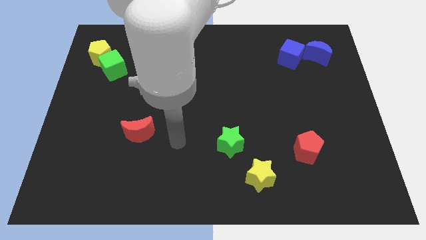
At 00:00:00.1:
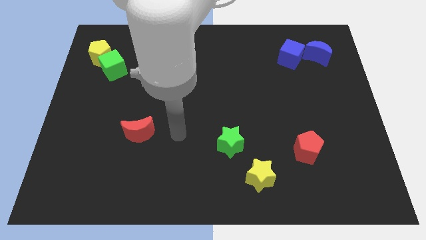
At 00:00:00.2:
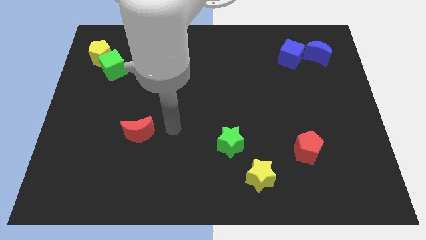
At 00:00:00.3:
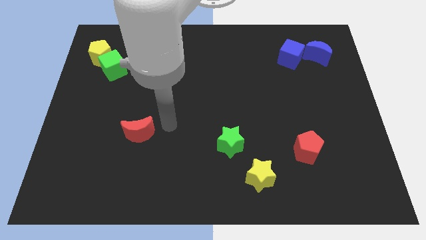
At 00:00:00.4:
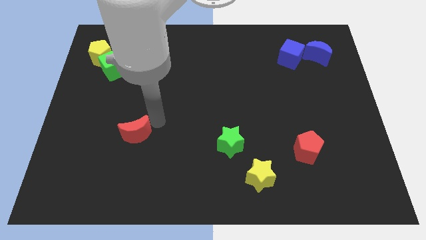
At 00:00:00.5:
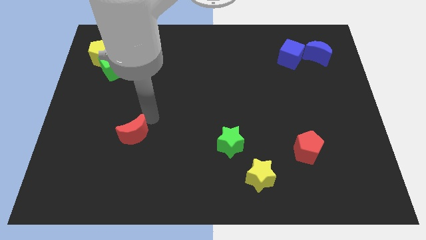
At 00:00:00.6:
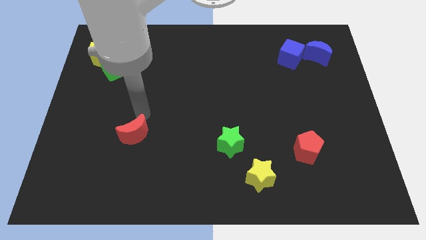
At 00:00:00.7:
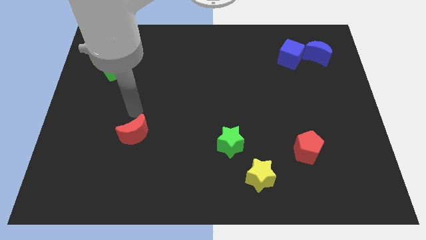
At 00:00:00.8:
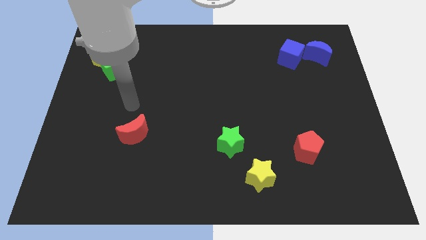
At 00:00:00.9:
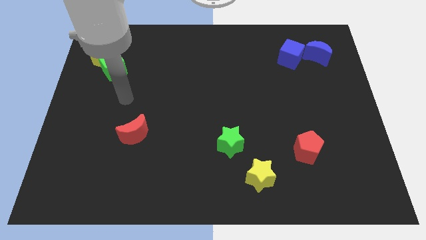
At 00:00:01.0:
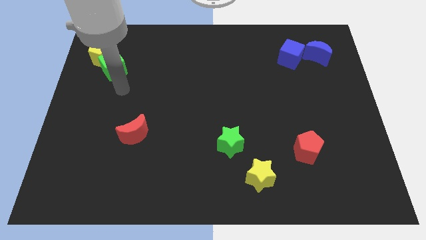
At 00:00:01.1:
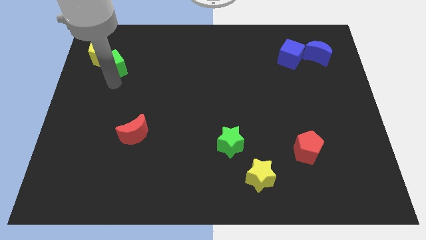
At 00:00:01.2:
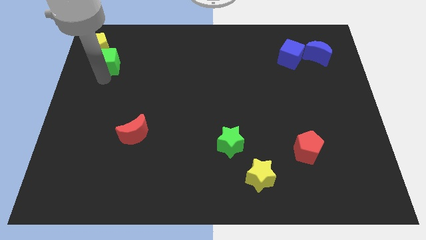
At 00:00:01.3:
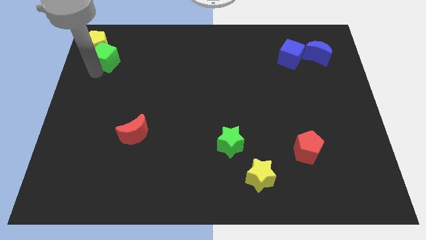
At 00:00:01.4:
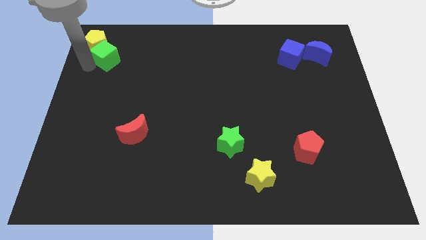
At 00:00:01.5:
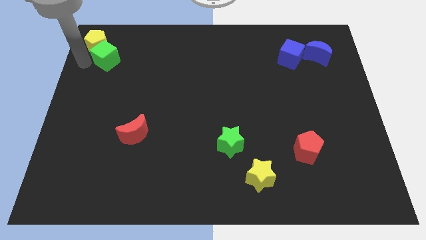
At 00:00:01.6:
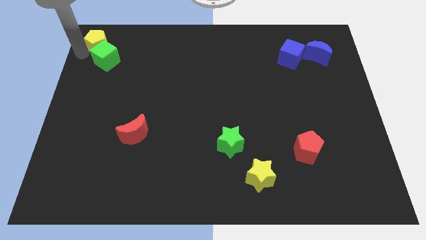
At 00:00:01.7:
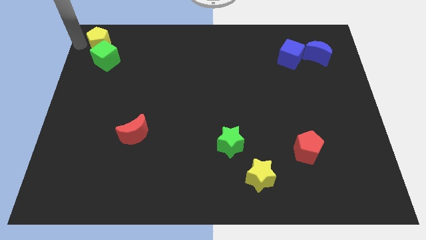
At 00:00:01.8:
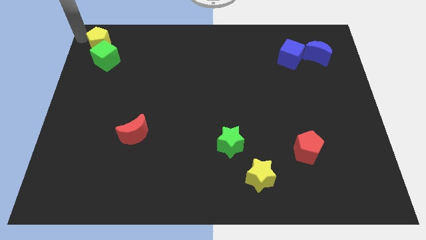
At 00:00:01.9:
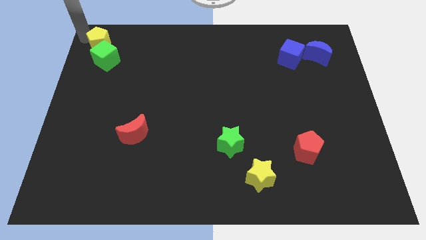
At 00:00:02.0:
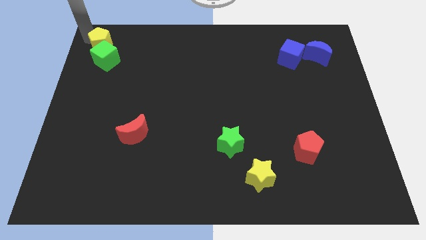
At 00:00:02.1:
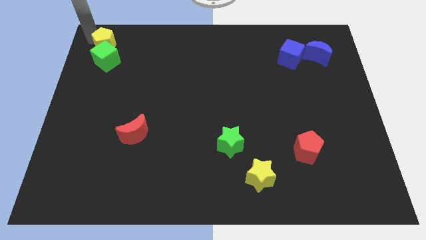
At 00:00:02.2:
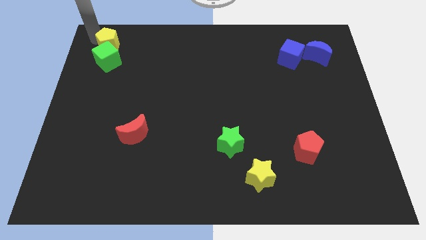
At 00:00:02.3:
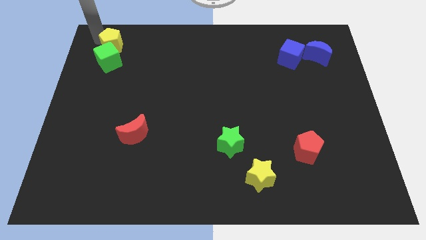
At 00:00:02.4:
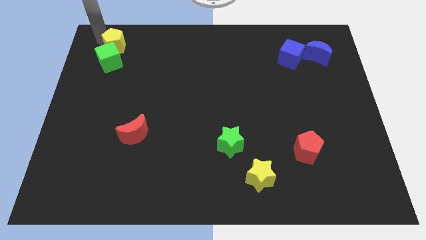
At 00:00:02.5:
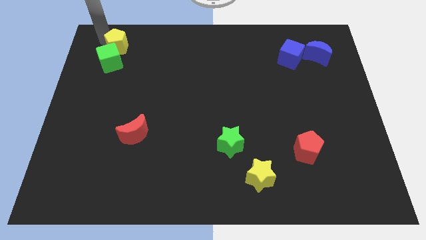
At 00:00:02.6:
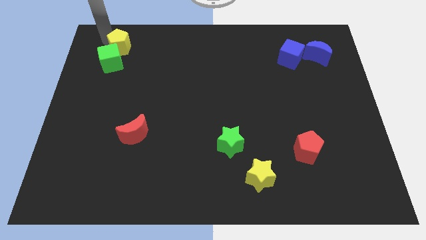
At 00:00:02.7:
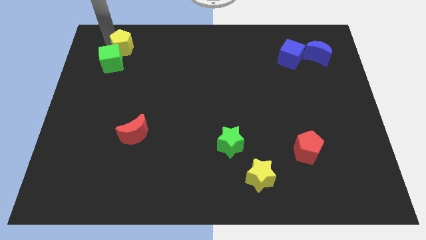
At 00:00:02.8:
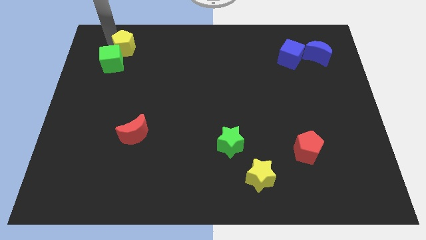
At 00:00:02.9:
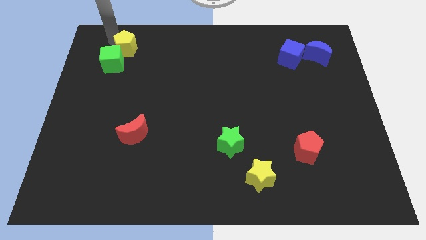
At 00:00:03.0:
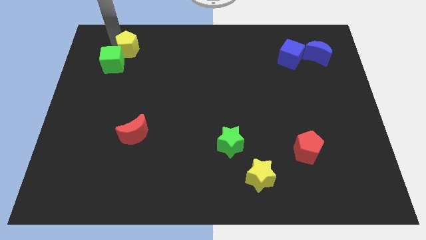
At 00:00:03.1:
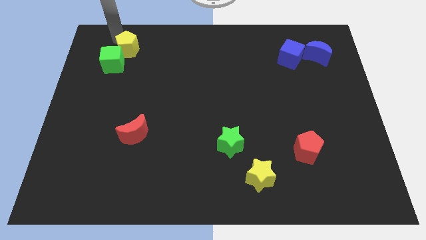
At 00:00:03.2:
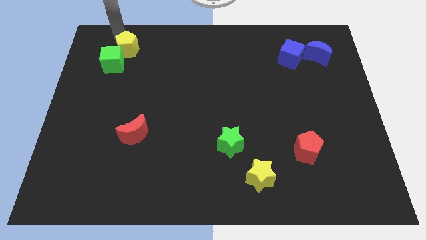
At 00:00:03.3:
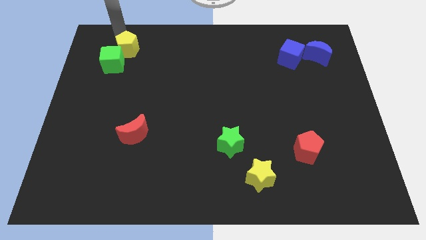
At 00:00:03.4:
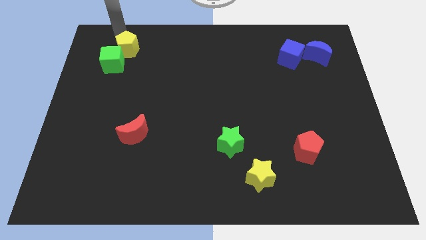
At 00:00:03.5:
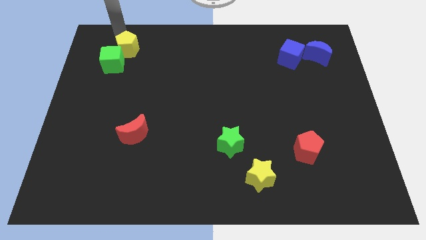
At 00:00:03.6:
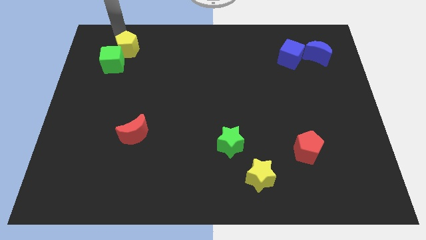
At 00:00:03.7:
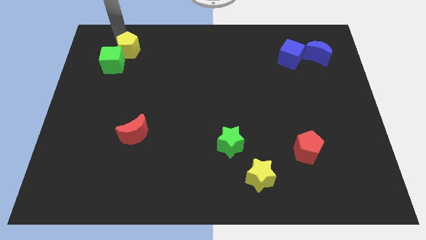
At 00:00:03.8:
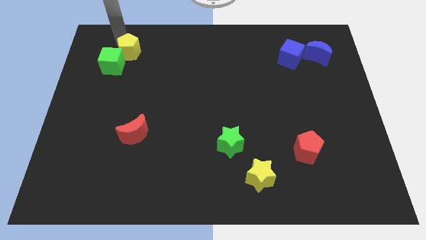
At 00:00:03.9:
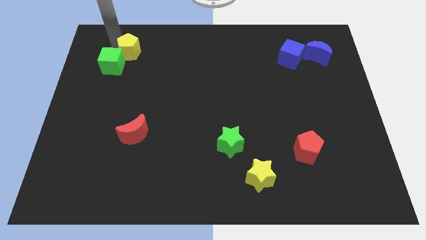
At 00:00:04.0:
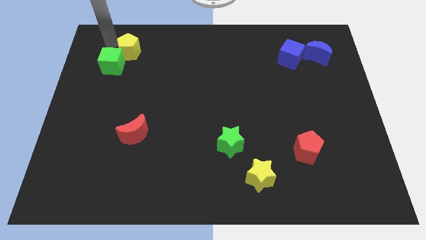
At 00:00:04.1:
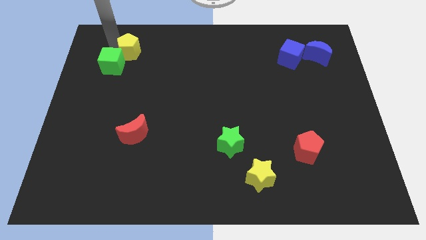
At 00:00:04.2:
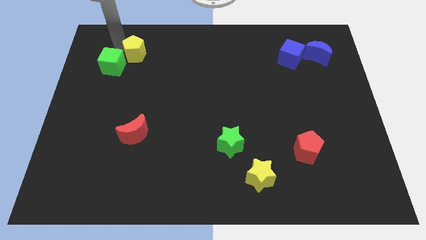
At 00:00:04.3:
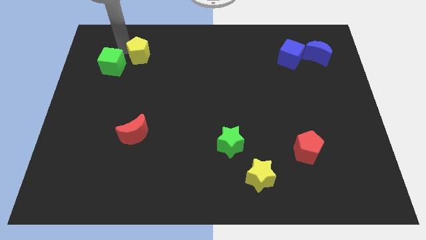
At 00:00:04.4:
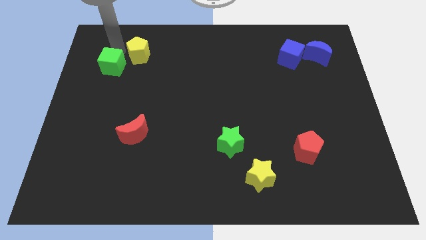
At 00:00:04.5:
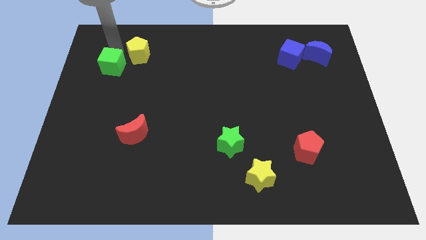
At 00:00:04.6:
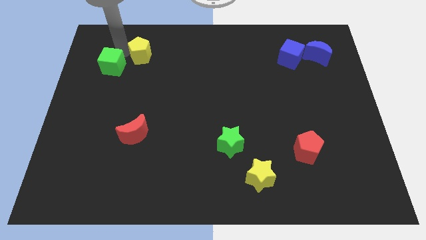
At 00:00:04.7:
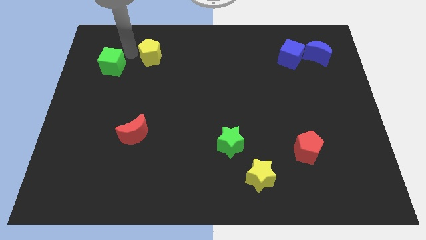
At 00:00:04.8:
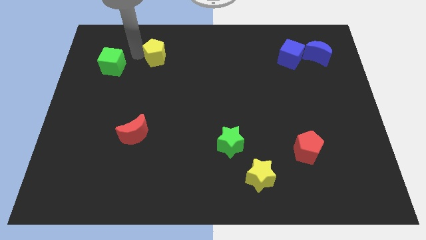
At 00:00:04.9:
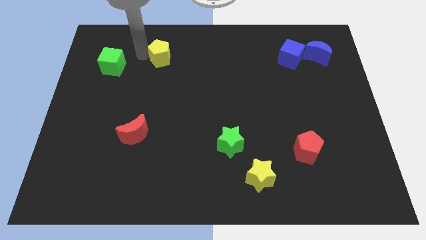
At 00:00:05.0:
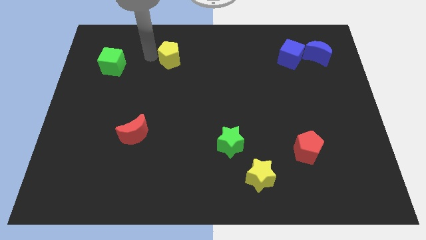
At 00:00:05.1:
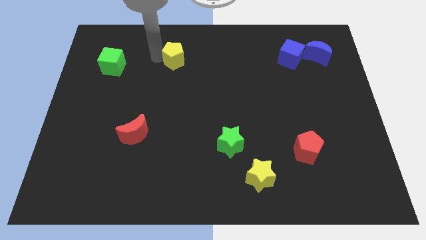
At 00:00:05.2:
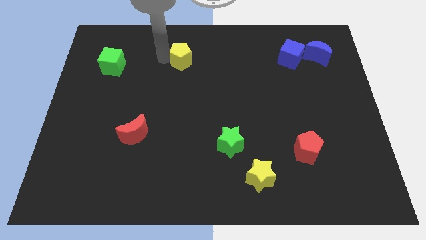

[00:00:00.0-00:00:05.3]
push the yellow pentagon to the right

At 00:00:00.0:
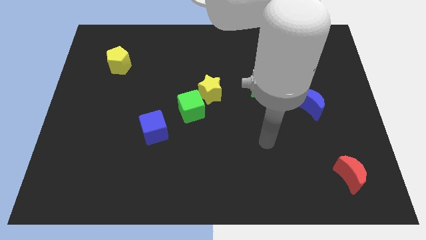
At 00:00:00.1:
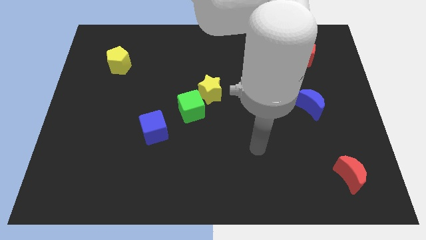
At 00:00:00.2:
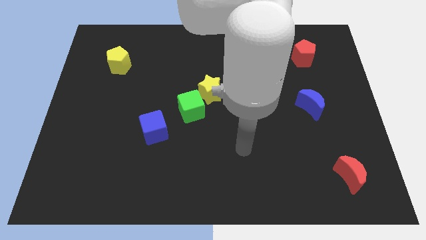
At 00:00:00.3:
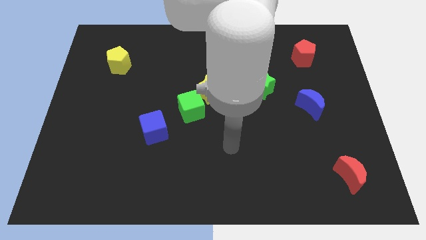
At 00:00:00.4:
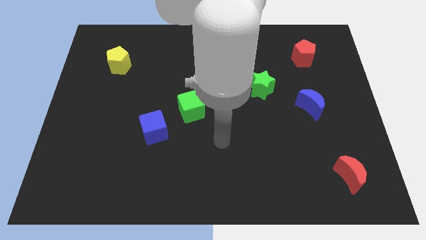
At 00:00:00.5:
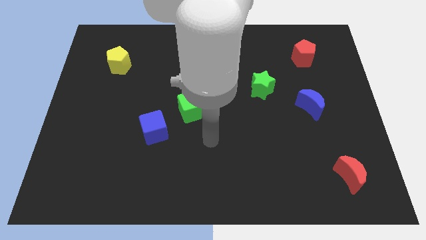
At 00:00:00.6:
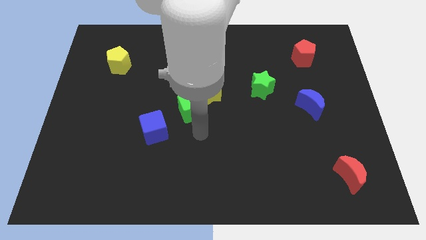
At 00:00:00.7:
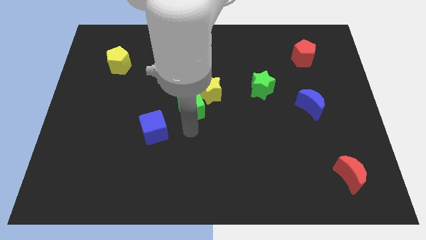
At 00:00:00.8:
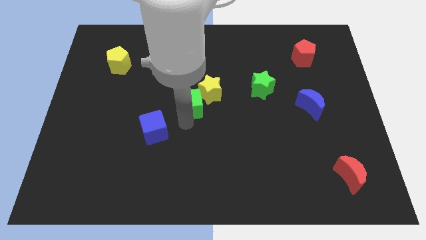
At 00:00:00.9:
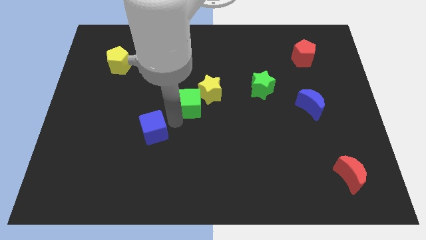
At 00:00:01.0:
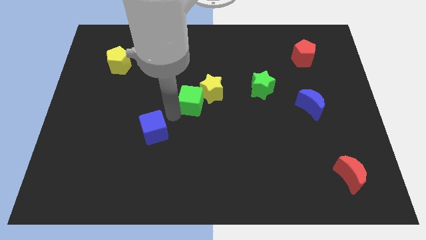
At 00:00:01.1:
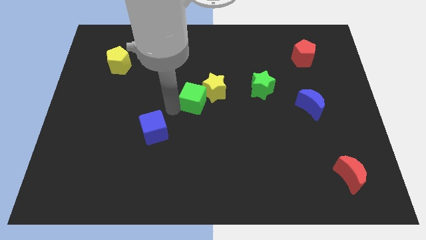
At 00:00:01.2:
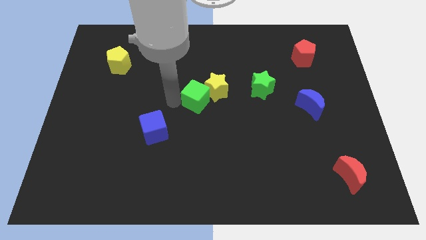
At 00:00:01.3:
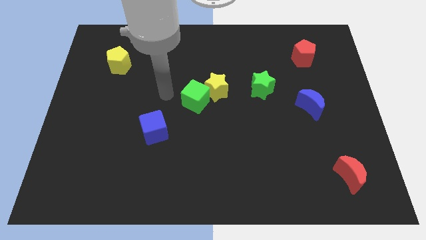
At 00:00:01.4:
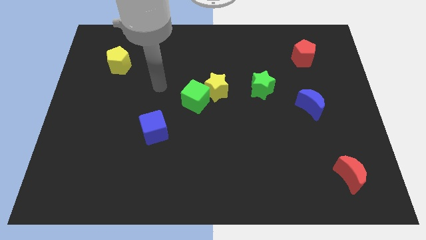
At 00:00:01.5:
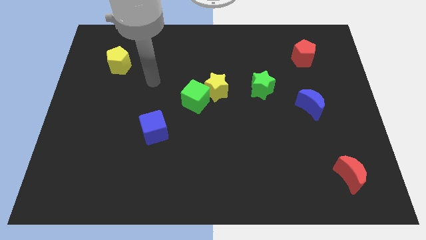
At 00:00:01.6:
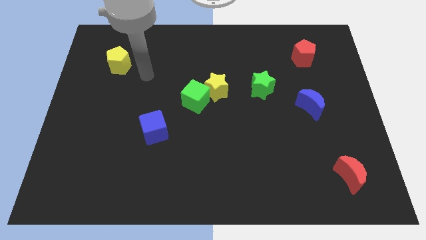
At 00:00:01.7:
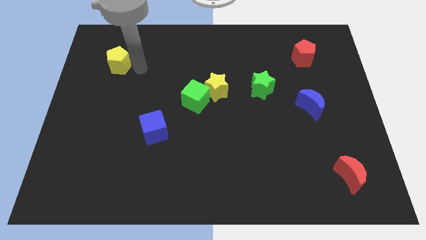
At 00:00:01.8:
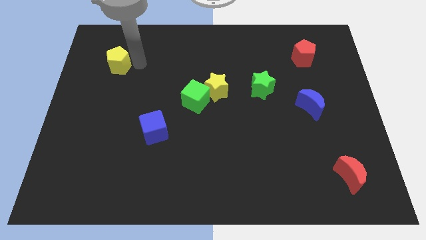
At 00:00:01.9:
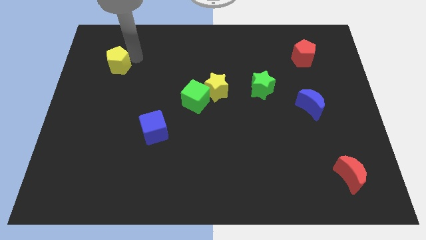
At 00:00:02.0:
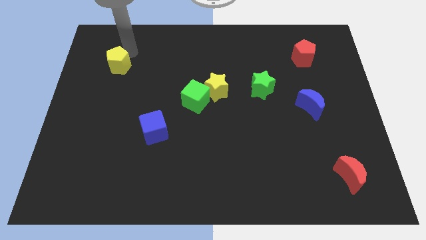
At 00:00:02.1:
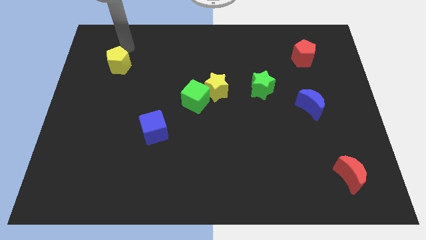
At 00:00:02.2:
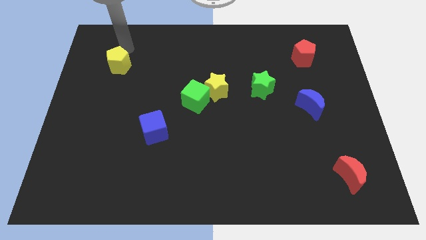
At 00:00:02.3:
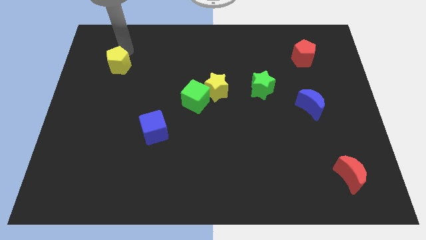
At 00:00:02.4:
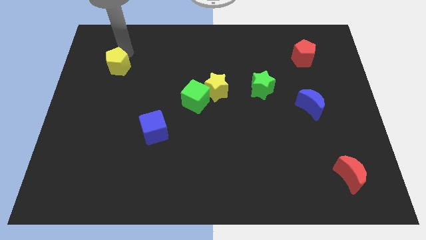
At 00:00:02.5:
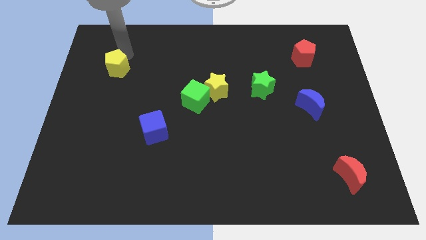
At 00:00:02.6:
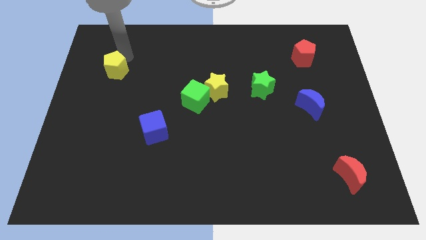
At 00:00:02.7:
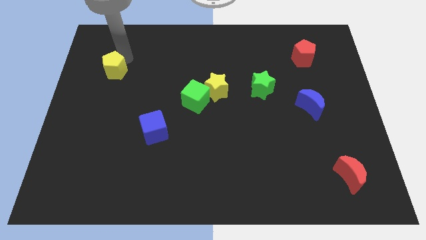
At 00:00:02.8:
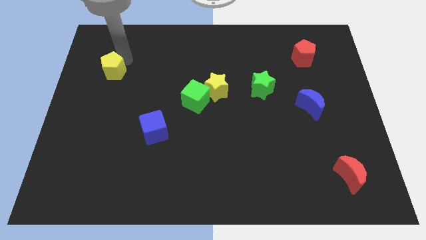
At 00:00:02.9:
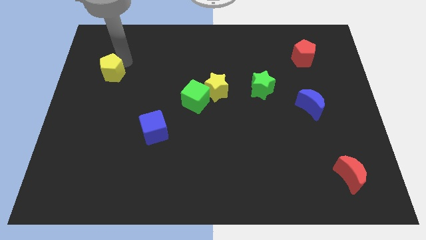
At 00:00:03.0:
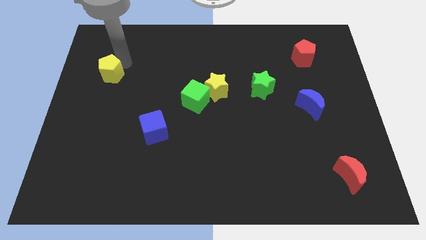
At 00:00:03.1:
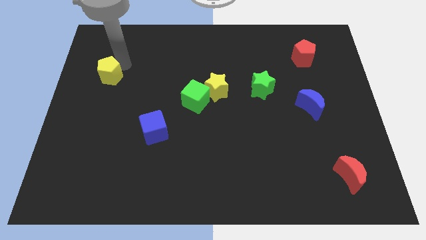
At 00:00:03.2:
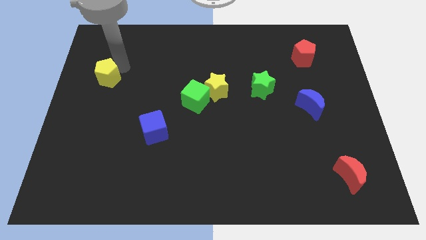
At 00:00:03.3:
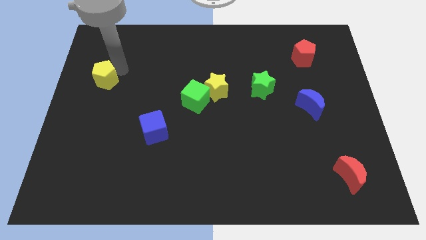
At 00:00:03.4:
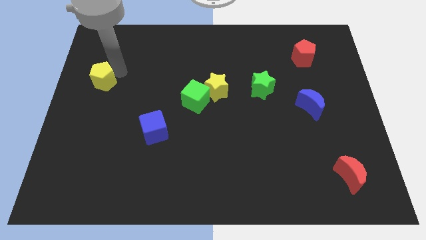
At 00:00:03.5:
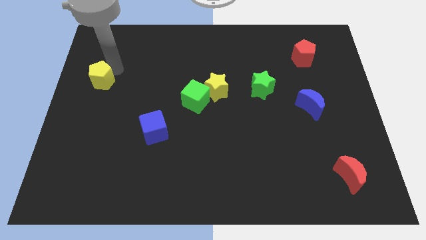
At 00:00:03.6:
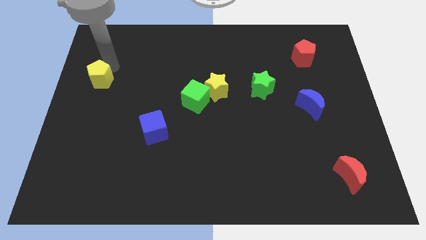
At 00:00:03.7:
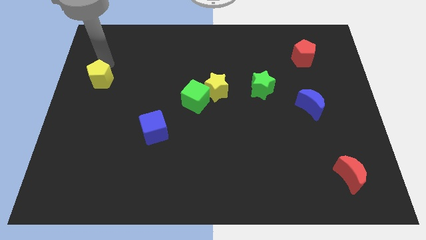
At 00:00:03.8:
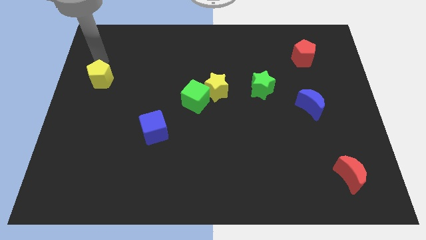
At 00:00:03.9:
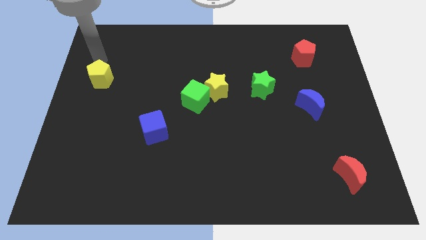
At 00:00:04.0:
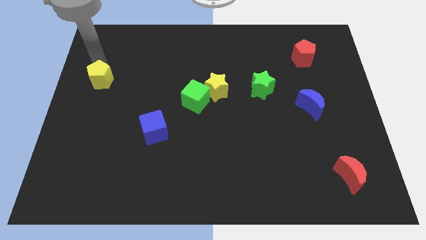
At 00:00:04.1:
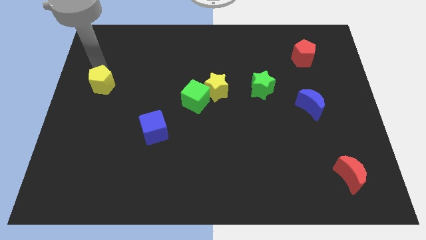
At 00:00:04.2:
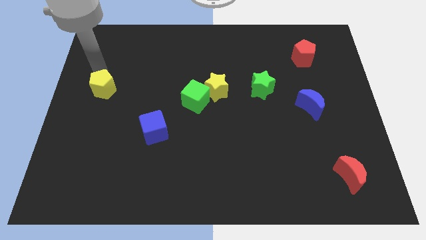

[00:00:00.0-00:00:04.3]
push the yellow pentagon down somewhat
